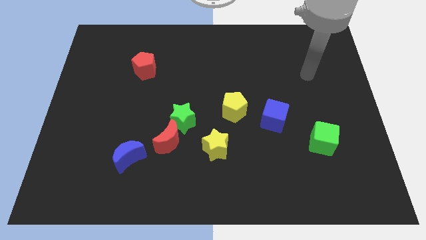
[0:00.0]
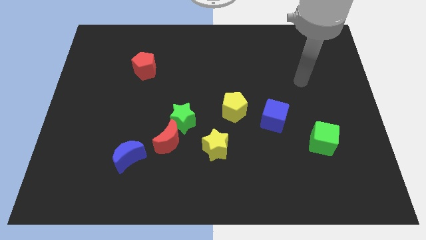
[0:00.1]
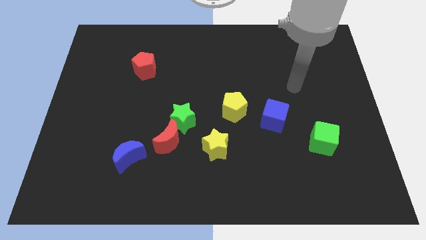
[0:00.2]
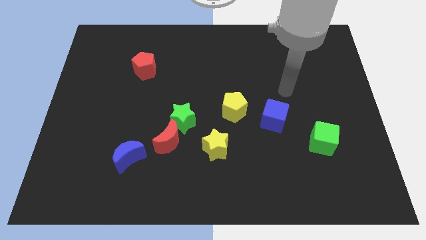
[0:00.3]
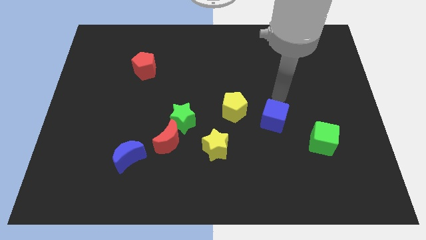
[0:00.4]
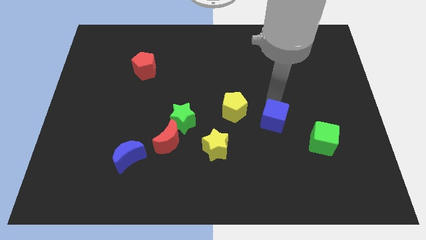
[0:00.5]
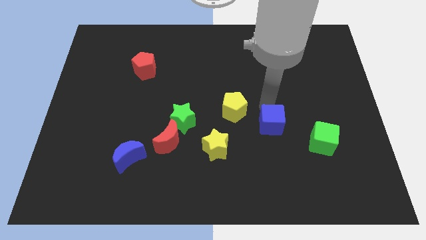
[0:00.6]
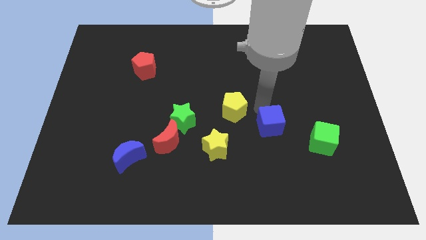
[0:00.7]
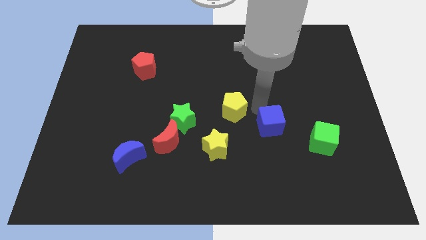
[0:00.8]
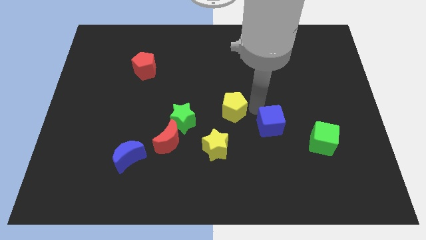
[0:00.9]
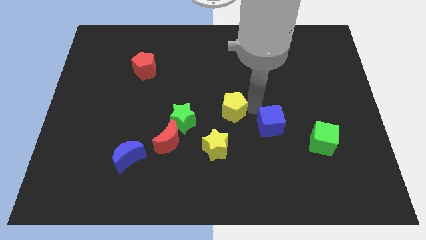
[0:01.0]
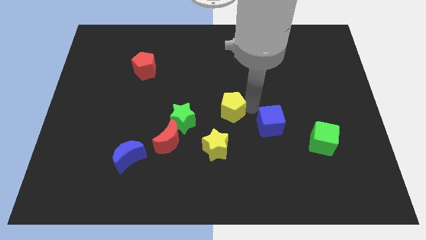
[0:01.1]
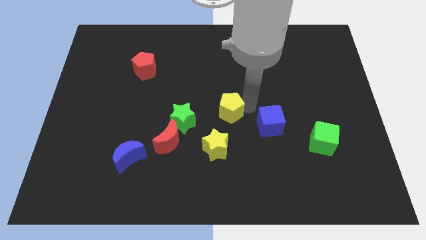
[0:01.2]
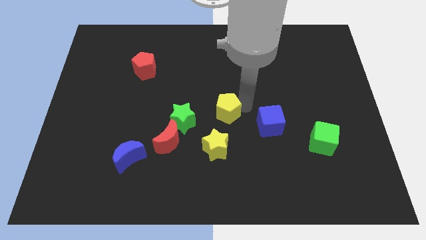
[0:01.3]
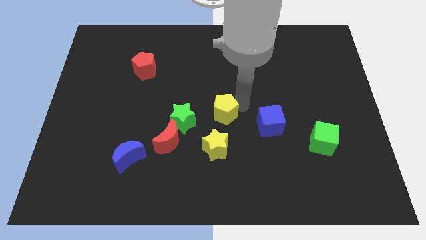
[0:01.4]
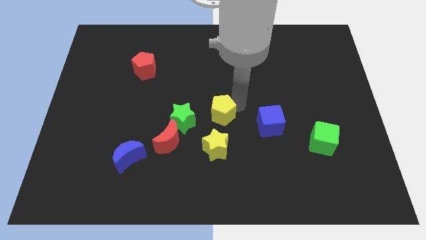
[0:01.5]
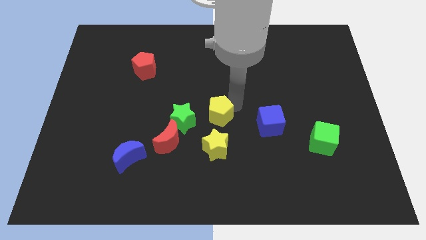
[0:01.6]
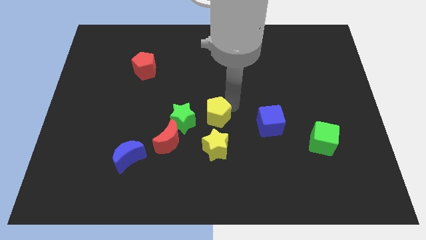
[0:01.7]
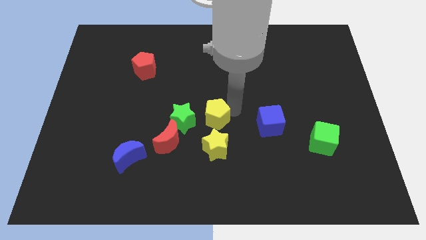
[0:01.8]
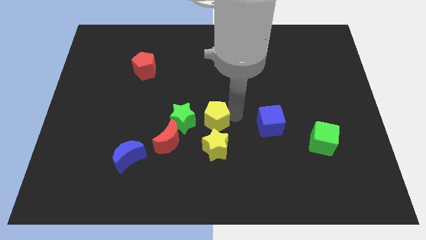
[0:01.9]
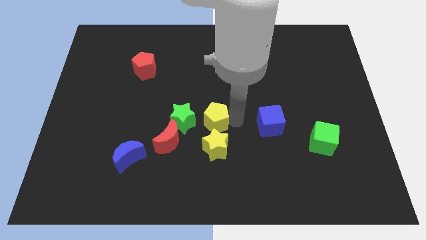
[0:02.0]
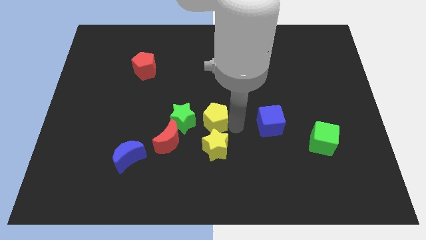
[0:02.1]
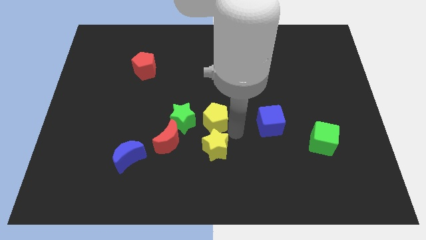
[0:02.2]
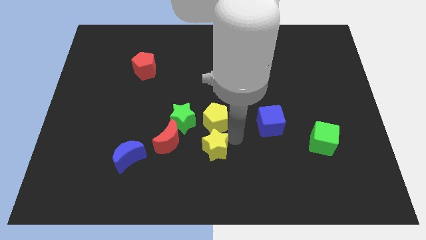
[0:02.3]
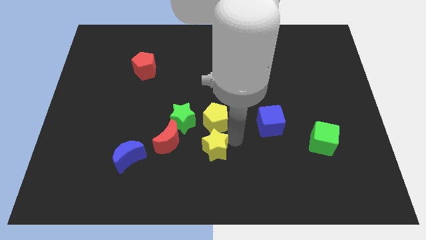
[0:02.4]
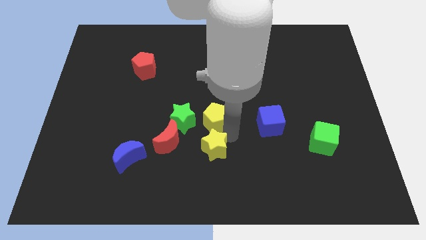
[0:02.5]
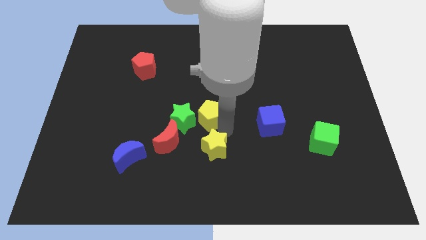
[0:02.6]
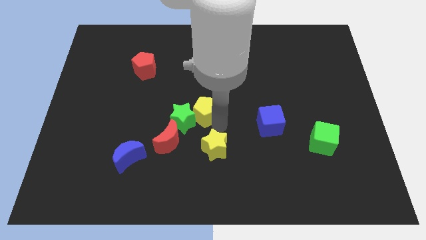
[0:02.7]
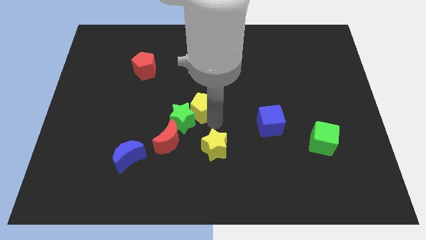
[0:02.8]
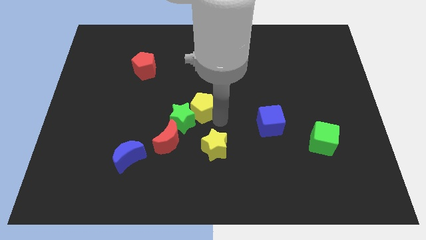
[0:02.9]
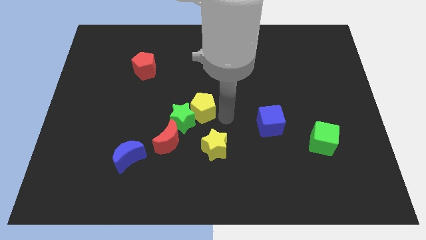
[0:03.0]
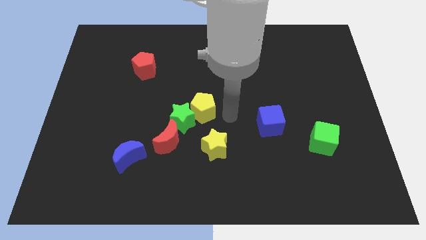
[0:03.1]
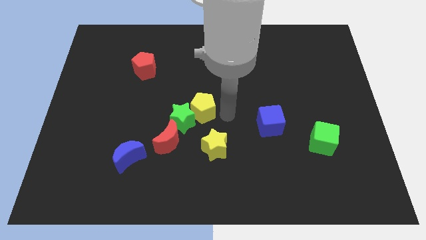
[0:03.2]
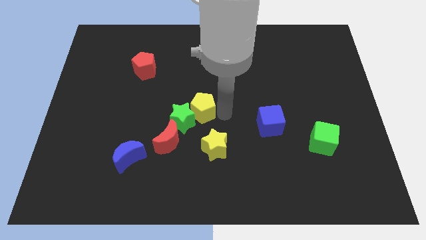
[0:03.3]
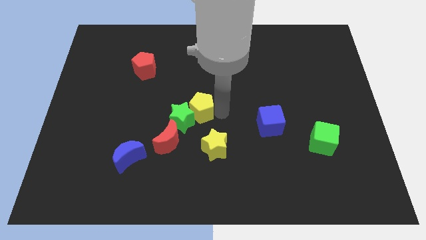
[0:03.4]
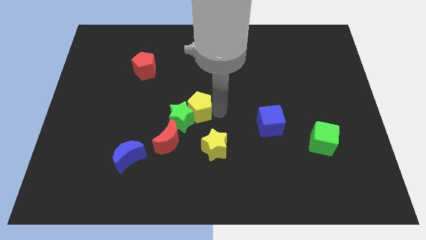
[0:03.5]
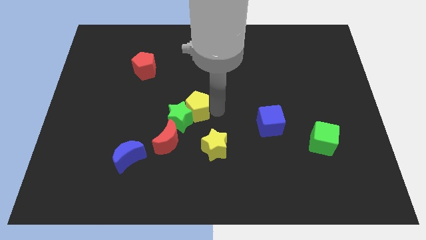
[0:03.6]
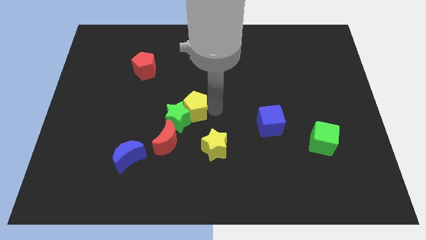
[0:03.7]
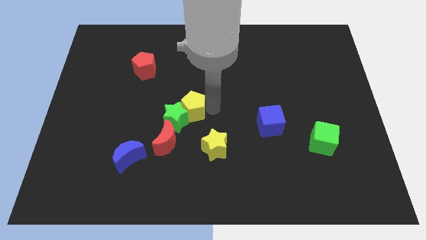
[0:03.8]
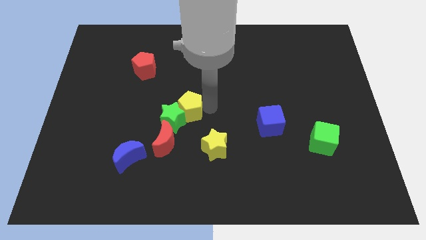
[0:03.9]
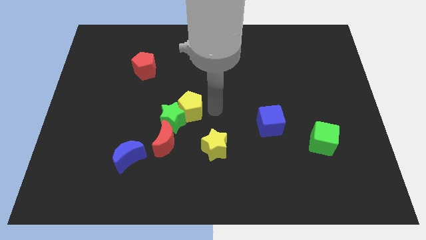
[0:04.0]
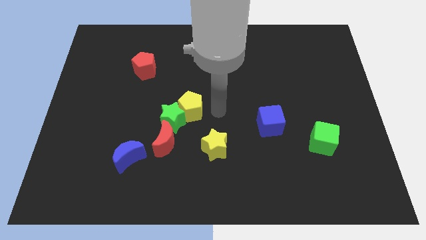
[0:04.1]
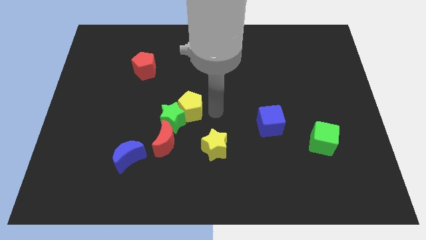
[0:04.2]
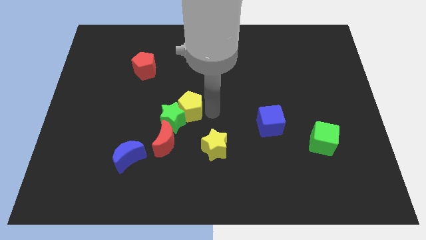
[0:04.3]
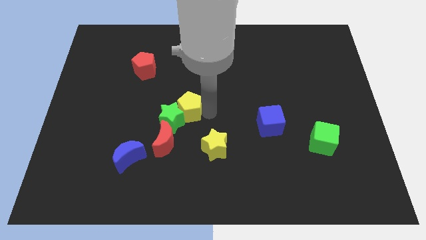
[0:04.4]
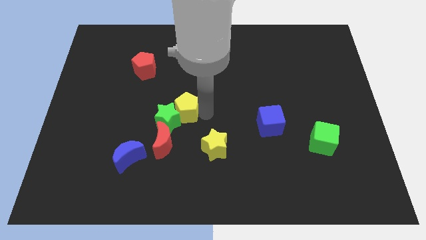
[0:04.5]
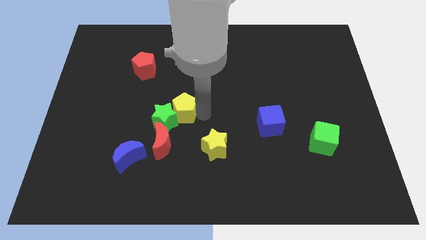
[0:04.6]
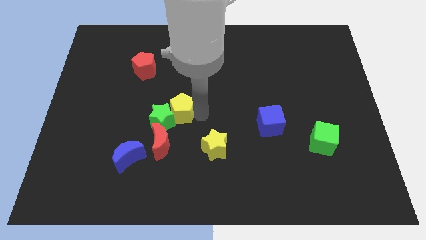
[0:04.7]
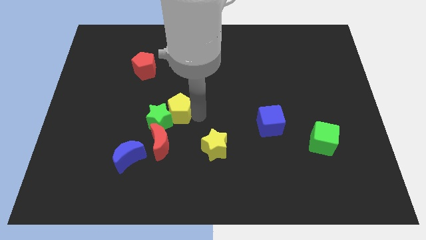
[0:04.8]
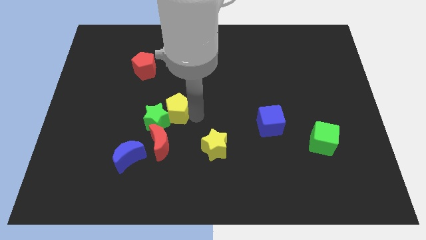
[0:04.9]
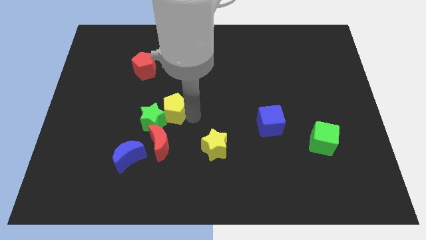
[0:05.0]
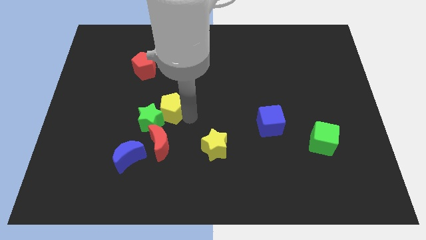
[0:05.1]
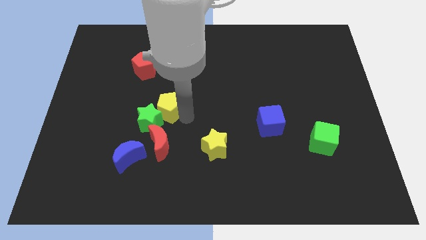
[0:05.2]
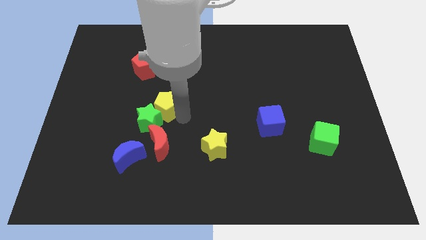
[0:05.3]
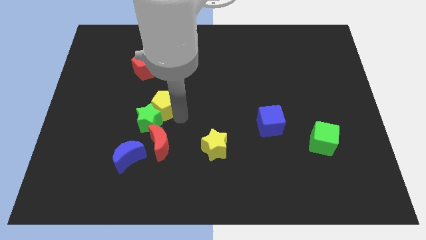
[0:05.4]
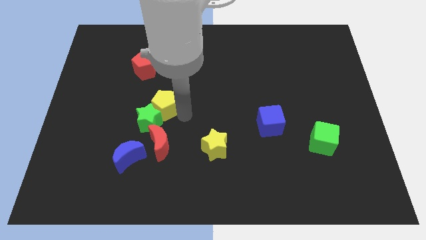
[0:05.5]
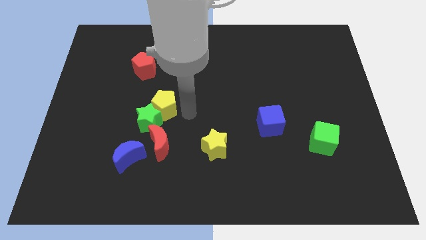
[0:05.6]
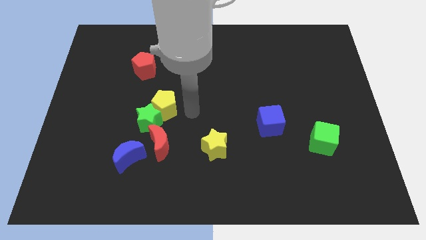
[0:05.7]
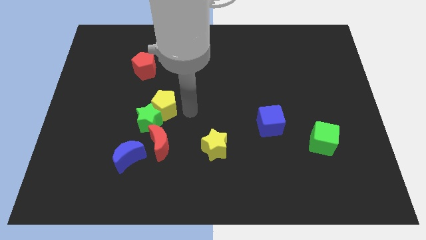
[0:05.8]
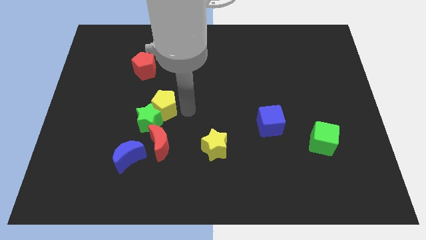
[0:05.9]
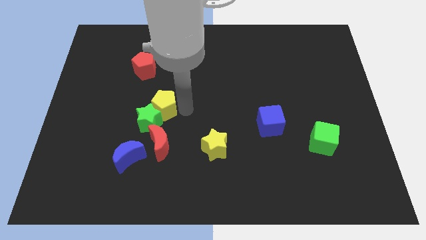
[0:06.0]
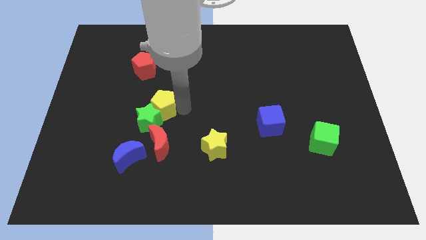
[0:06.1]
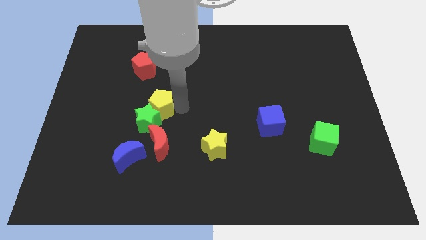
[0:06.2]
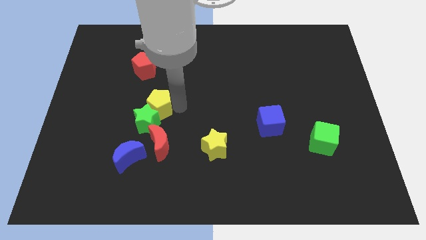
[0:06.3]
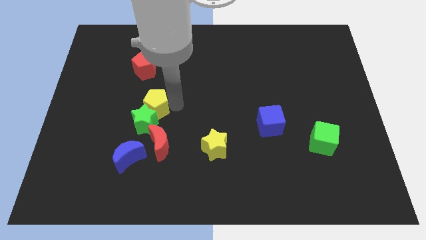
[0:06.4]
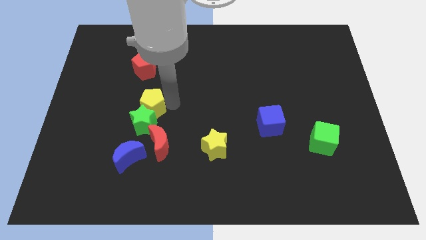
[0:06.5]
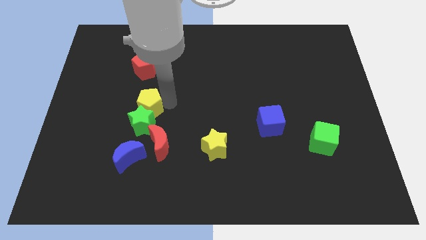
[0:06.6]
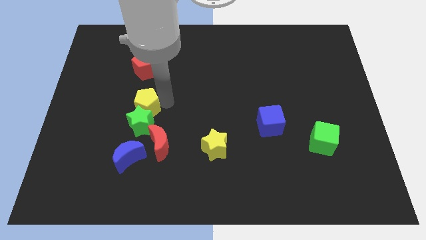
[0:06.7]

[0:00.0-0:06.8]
slide the yellow pentagon to the left

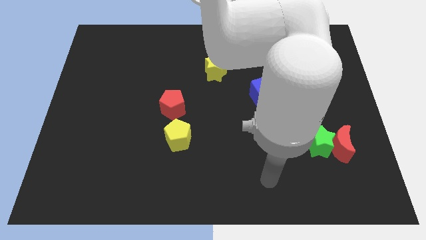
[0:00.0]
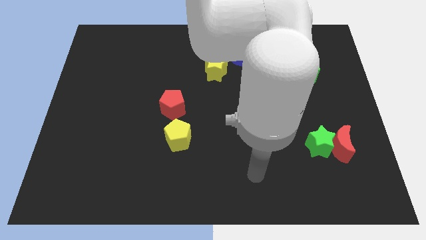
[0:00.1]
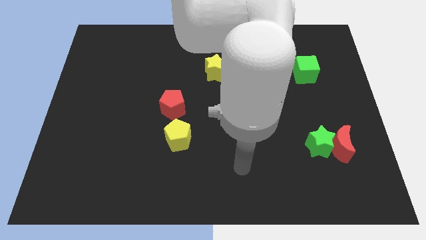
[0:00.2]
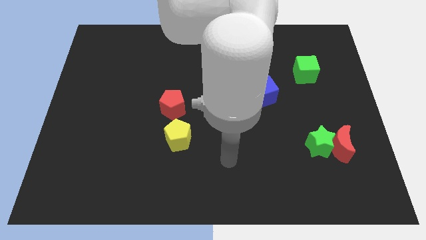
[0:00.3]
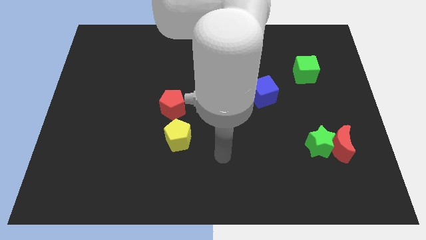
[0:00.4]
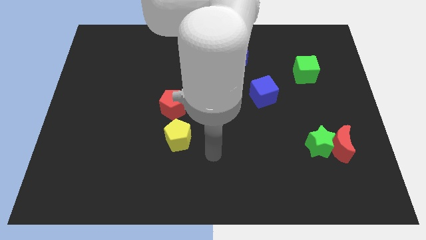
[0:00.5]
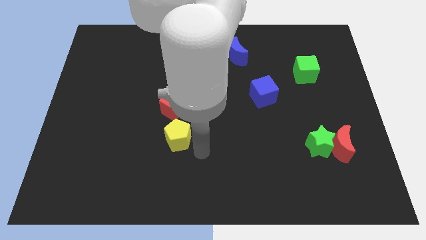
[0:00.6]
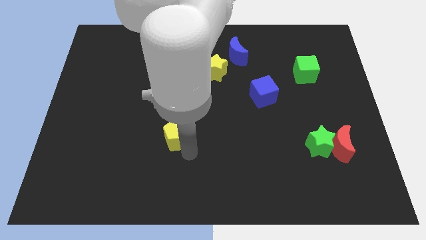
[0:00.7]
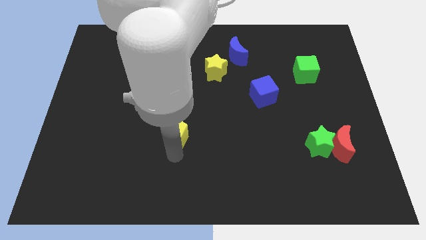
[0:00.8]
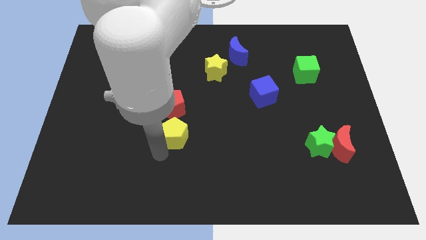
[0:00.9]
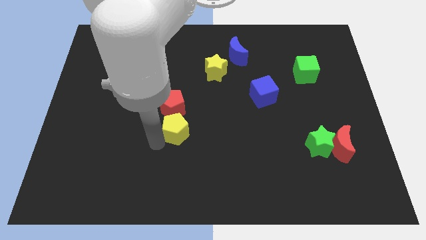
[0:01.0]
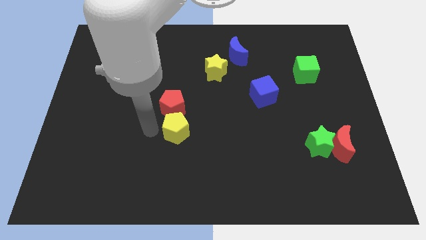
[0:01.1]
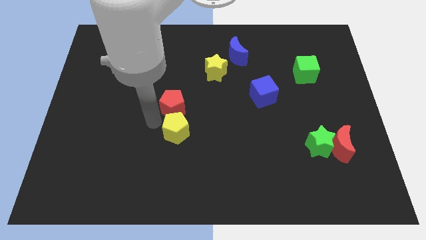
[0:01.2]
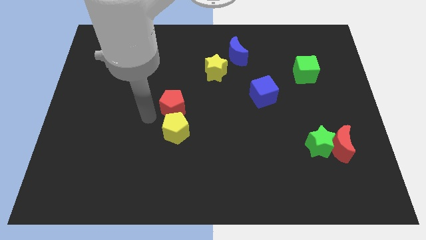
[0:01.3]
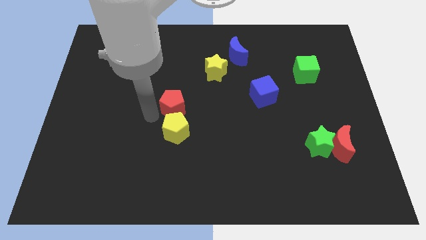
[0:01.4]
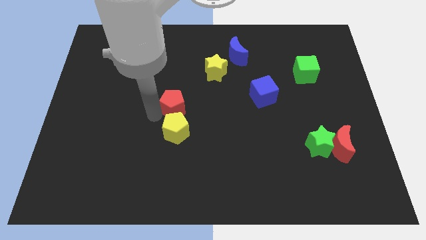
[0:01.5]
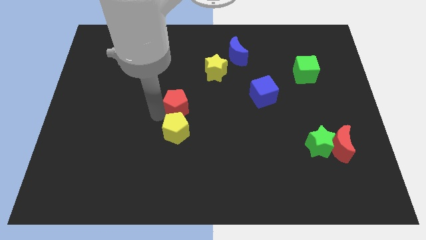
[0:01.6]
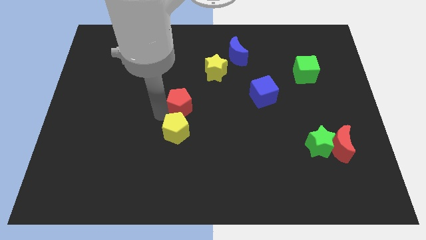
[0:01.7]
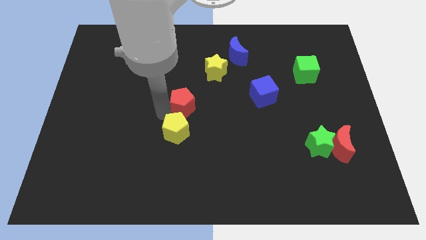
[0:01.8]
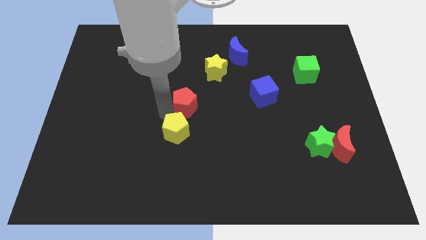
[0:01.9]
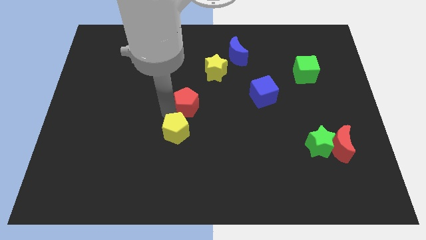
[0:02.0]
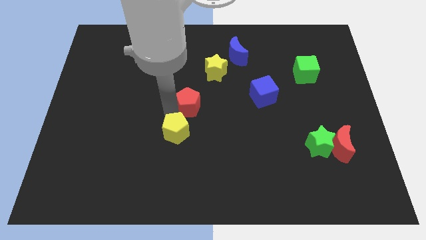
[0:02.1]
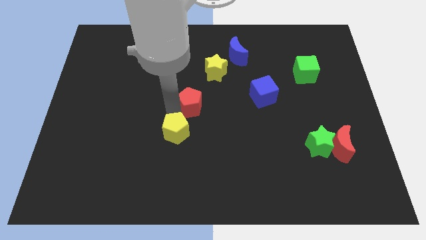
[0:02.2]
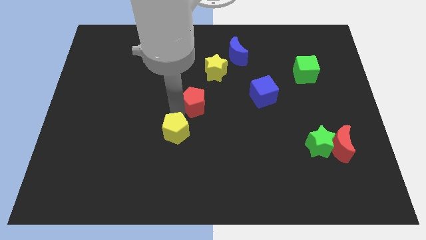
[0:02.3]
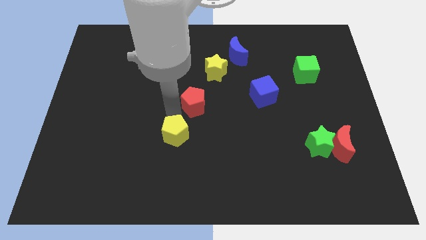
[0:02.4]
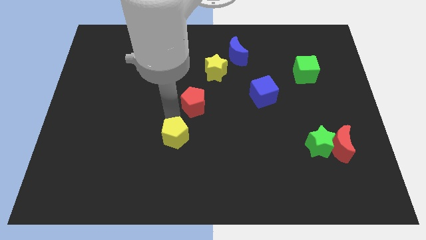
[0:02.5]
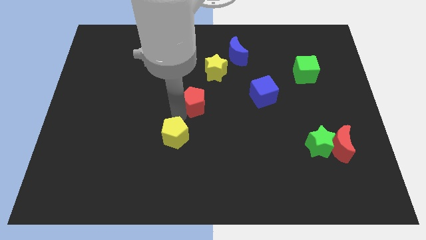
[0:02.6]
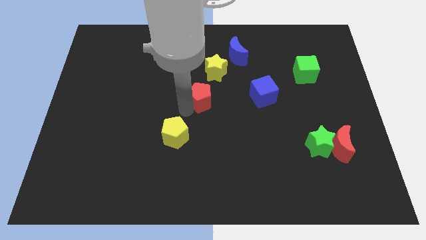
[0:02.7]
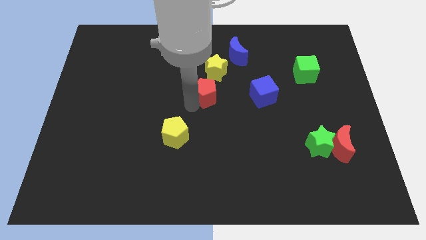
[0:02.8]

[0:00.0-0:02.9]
slightly push the red pentagon upwards and then right
